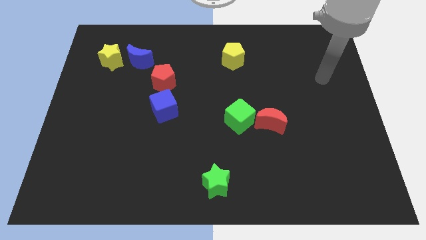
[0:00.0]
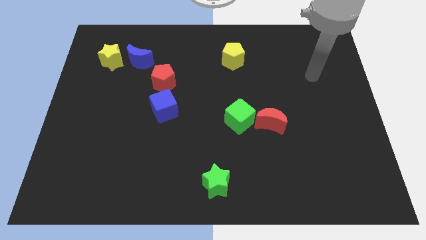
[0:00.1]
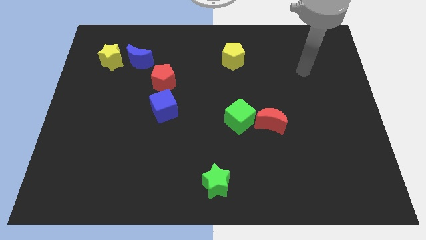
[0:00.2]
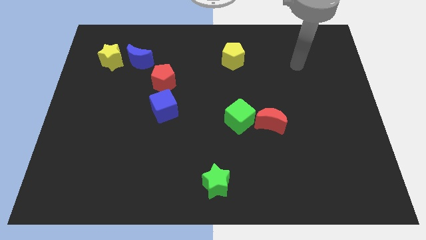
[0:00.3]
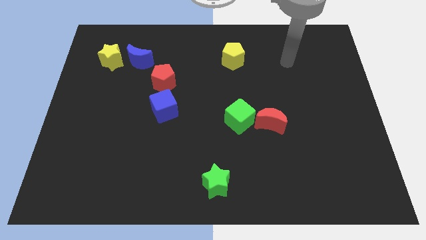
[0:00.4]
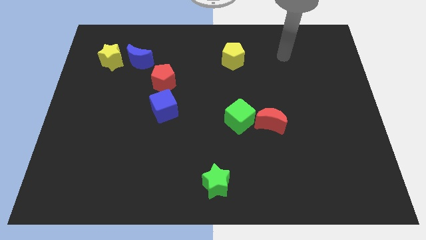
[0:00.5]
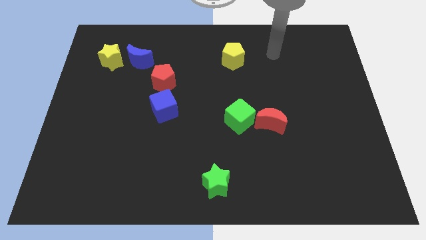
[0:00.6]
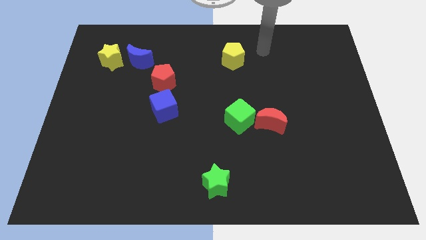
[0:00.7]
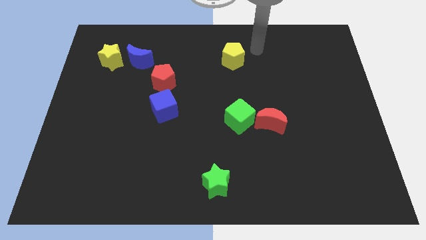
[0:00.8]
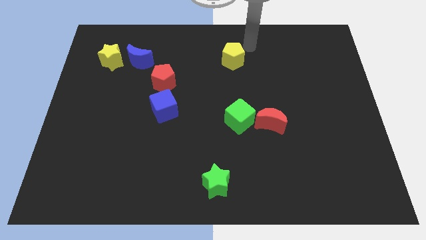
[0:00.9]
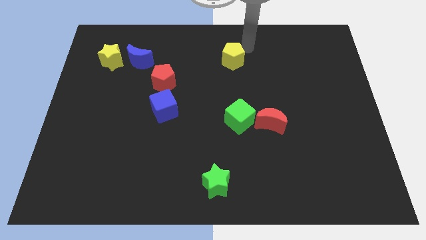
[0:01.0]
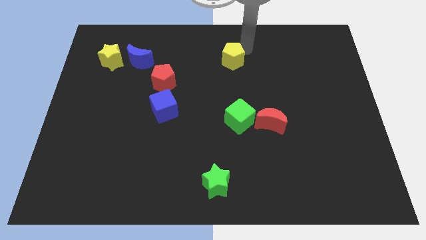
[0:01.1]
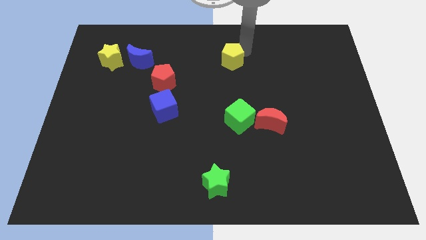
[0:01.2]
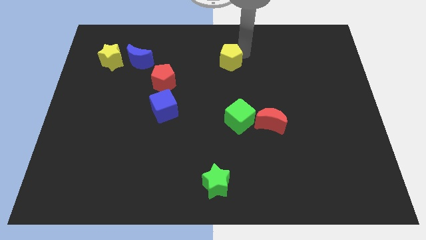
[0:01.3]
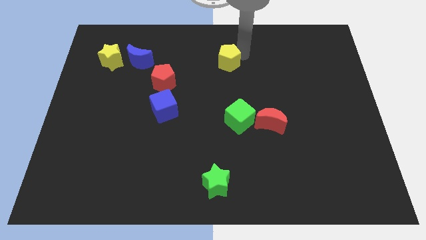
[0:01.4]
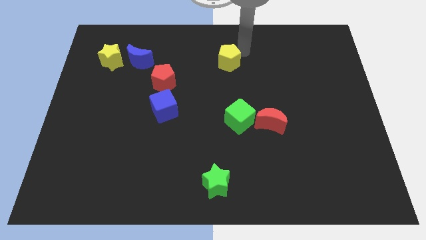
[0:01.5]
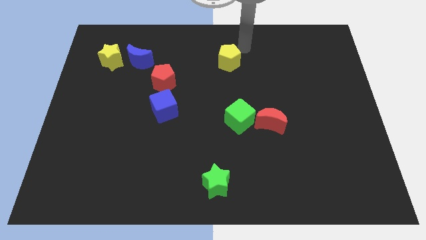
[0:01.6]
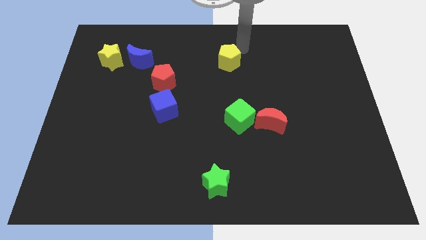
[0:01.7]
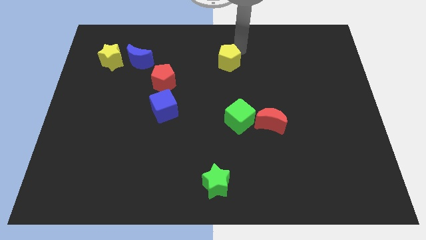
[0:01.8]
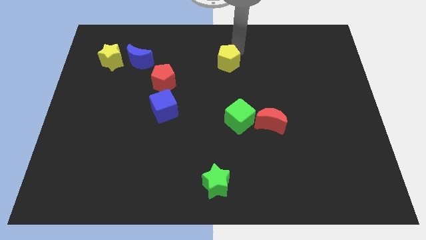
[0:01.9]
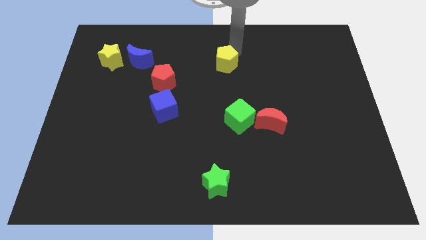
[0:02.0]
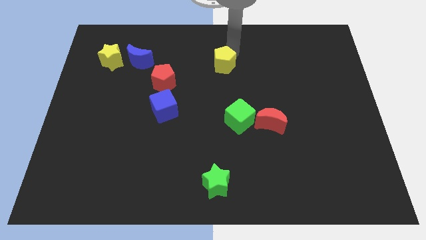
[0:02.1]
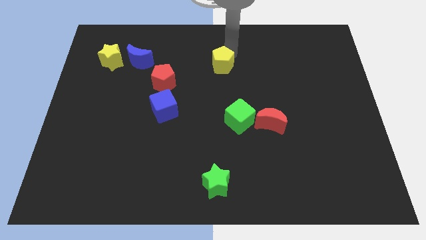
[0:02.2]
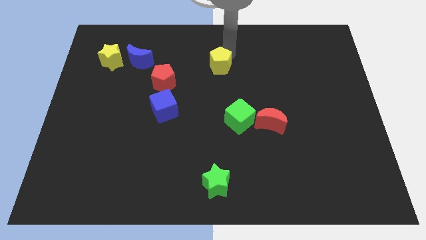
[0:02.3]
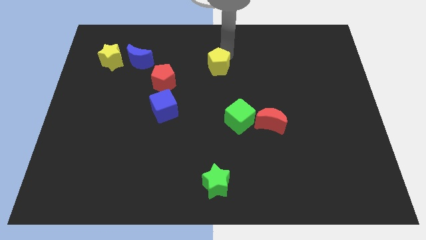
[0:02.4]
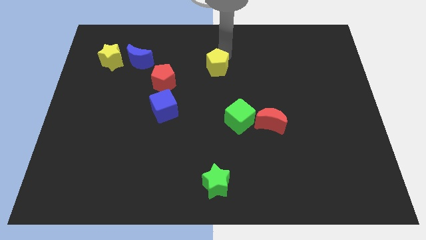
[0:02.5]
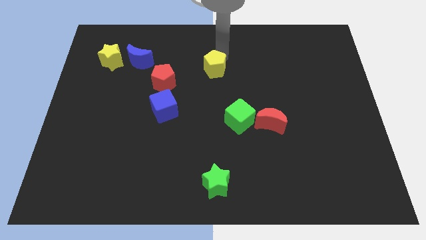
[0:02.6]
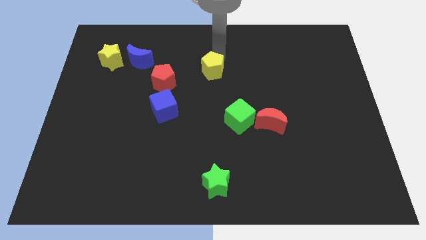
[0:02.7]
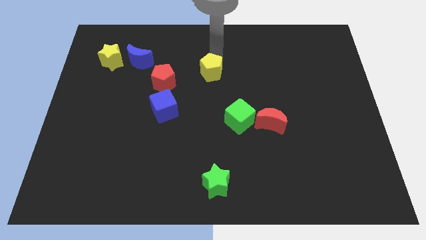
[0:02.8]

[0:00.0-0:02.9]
slide the yellow pentagon downwards and to the left a bit

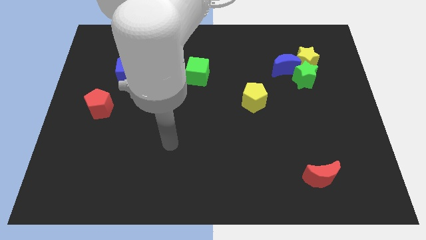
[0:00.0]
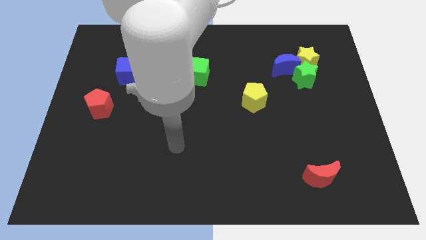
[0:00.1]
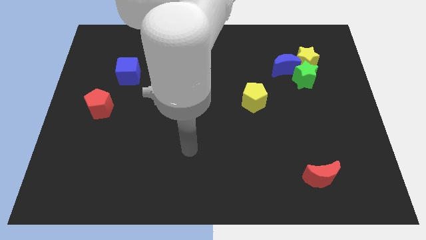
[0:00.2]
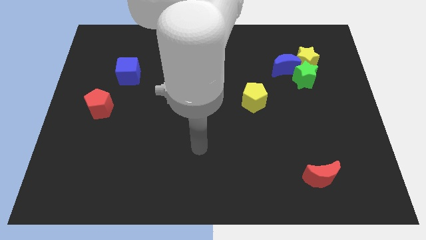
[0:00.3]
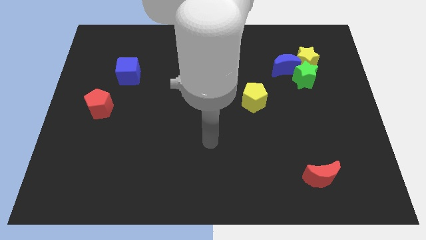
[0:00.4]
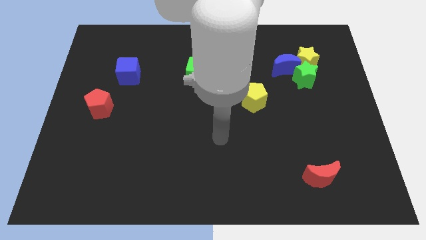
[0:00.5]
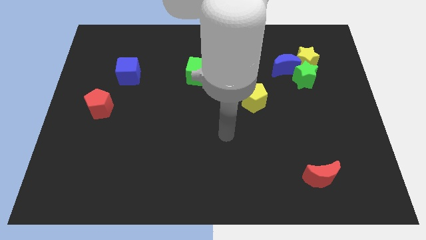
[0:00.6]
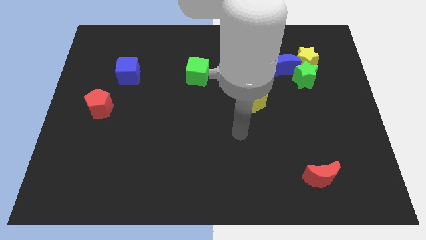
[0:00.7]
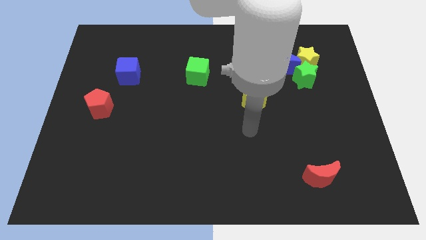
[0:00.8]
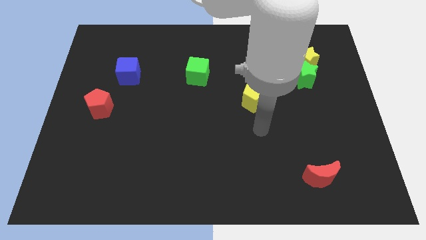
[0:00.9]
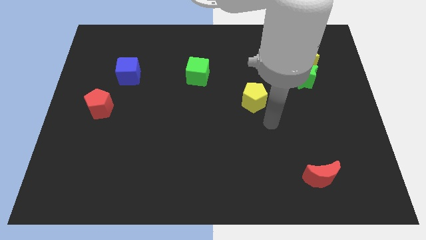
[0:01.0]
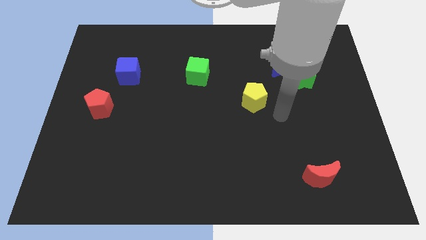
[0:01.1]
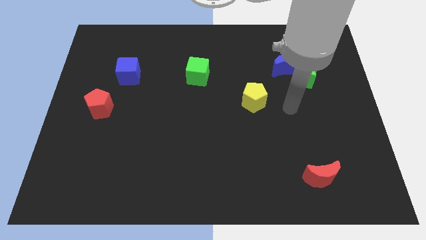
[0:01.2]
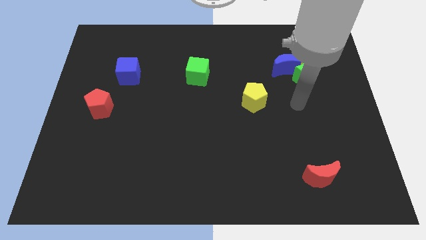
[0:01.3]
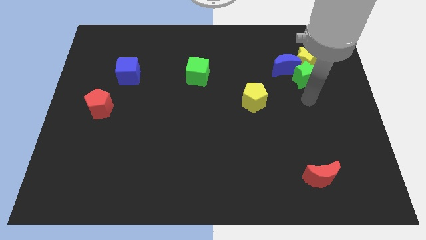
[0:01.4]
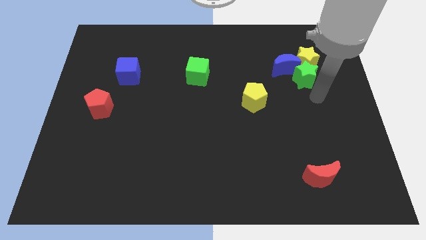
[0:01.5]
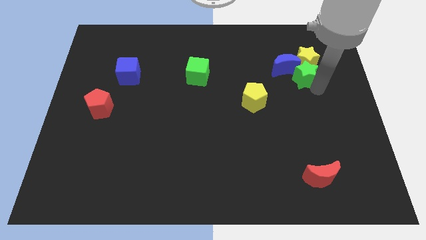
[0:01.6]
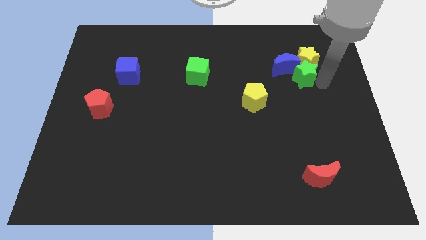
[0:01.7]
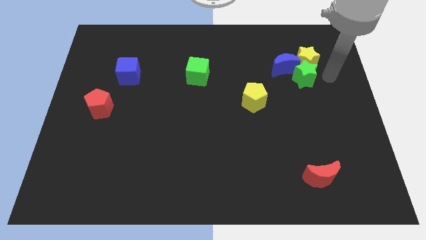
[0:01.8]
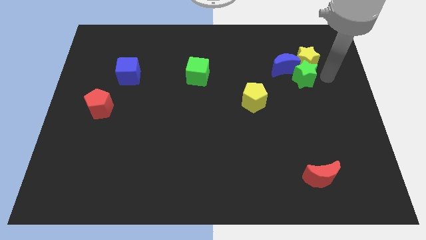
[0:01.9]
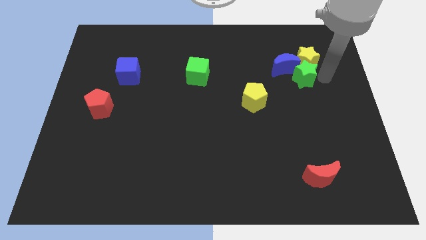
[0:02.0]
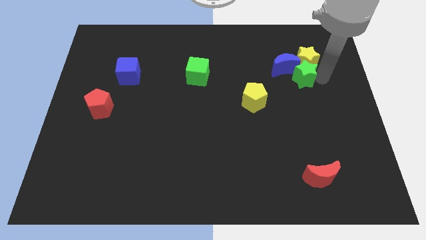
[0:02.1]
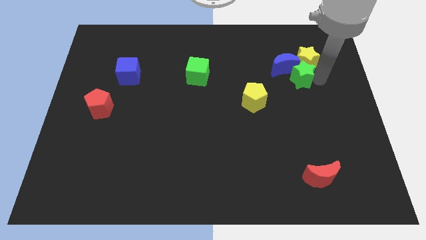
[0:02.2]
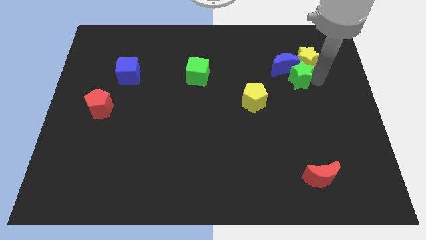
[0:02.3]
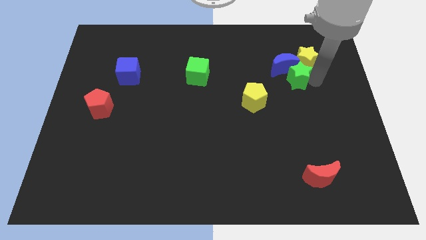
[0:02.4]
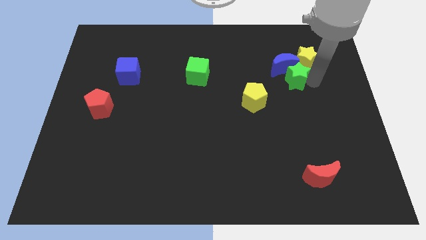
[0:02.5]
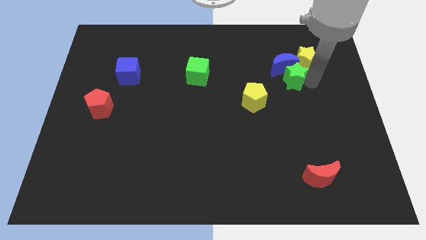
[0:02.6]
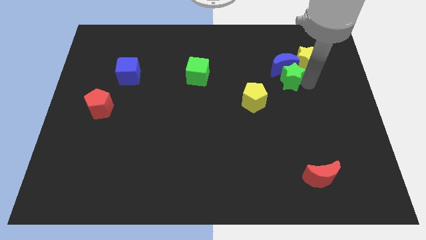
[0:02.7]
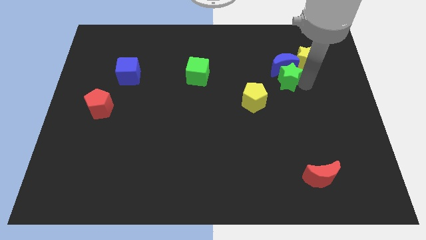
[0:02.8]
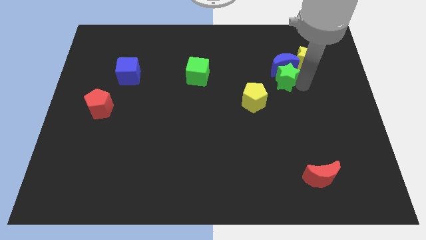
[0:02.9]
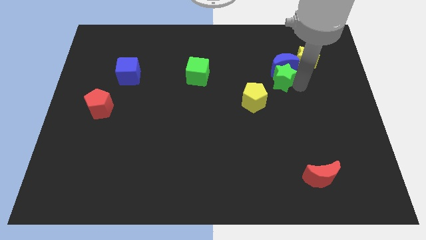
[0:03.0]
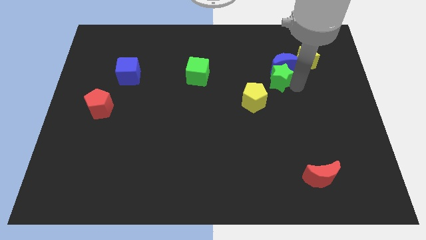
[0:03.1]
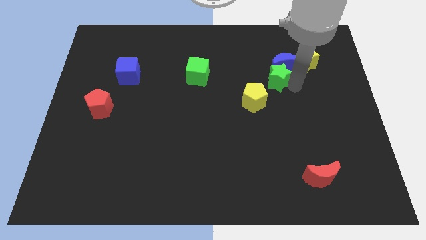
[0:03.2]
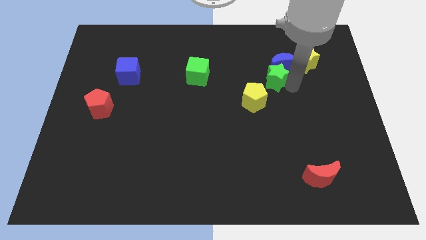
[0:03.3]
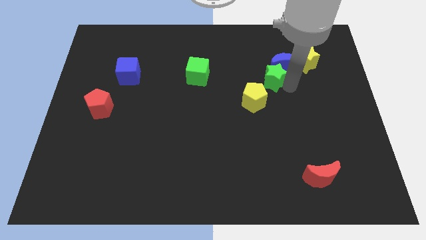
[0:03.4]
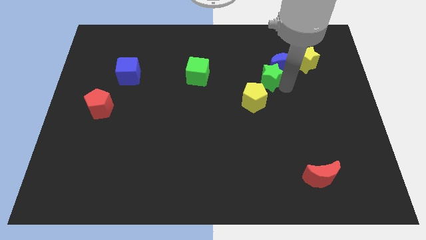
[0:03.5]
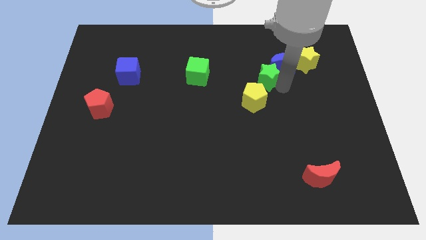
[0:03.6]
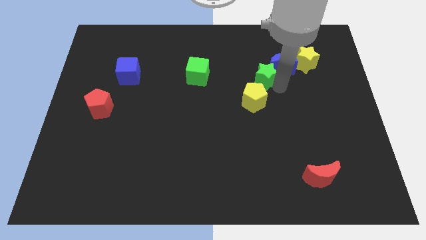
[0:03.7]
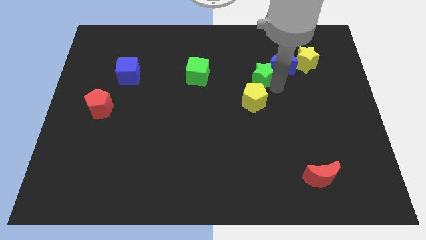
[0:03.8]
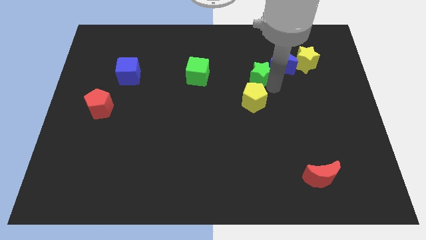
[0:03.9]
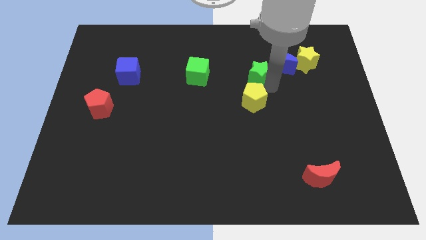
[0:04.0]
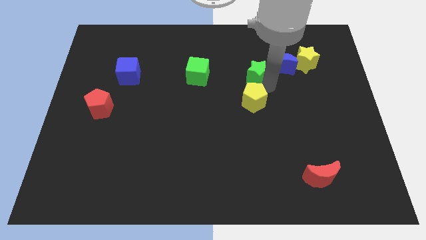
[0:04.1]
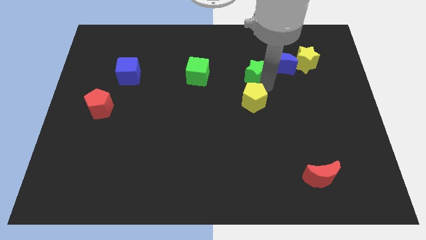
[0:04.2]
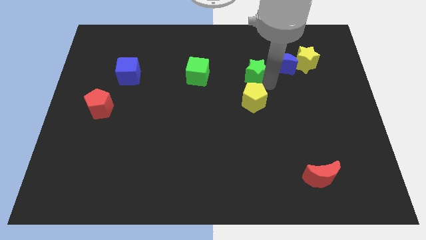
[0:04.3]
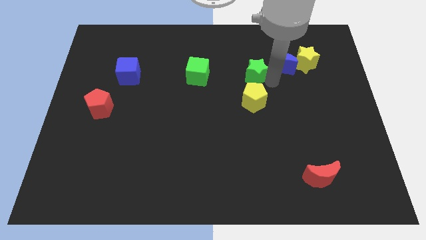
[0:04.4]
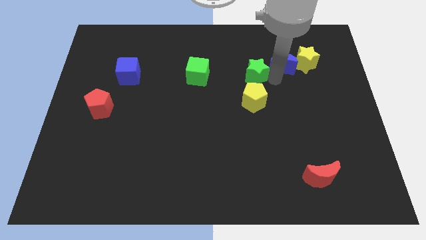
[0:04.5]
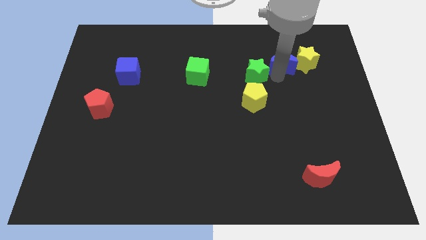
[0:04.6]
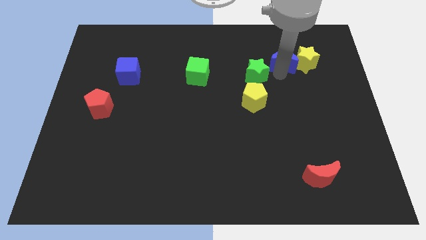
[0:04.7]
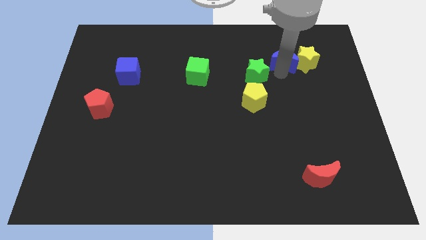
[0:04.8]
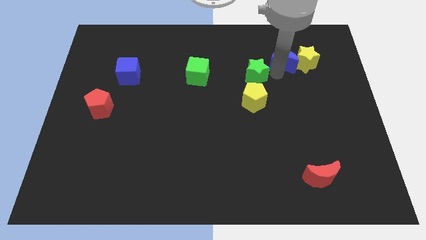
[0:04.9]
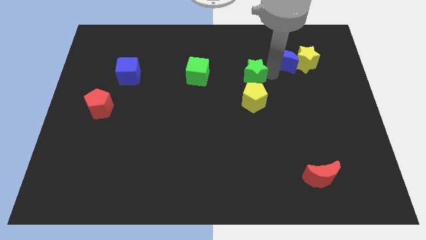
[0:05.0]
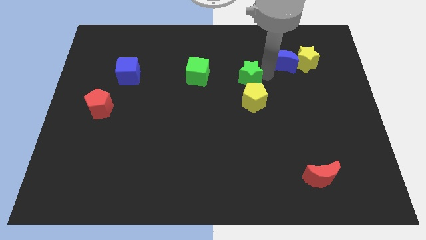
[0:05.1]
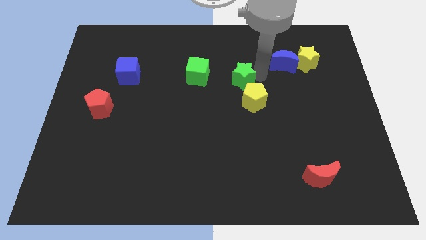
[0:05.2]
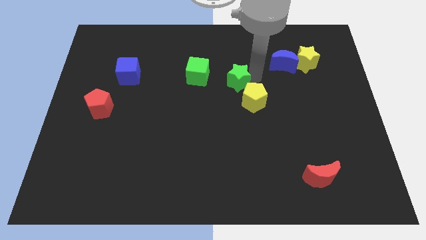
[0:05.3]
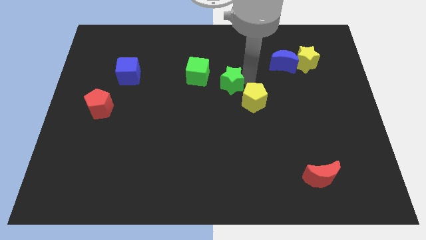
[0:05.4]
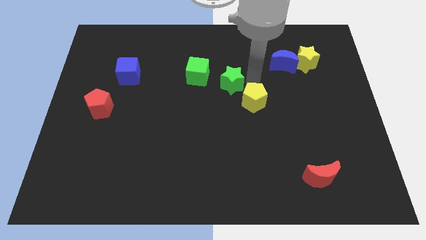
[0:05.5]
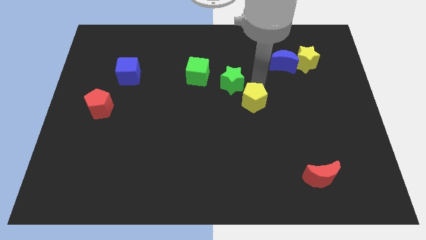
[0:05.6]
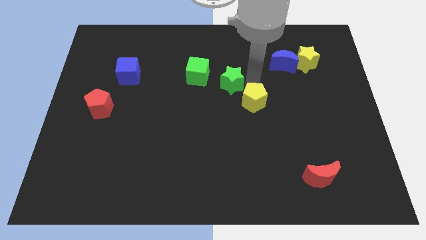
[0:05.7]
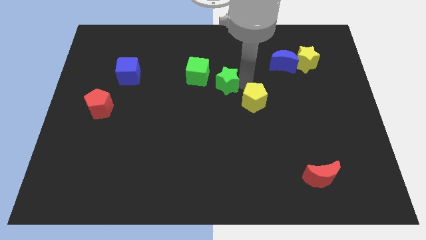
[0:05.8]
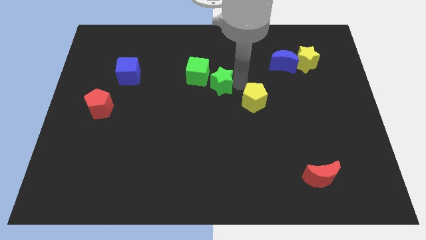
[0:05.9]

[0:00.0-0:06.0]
move the green star to the left
